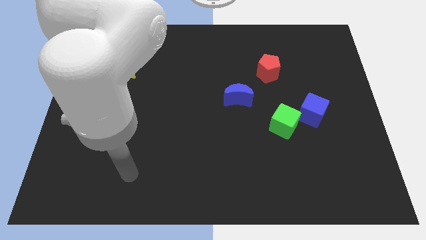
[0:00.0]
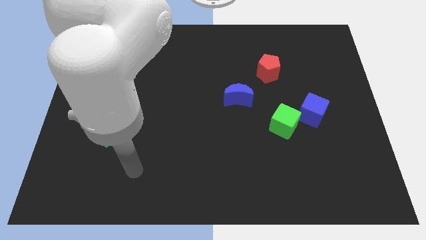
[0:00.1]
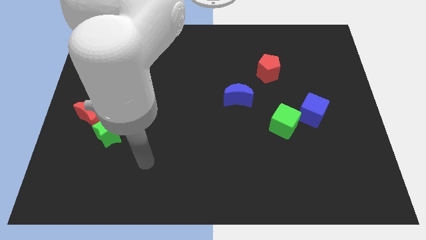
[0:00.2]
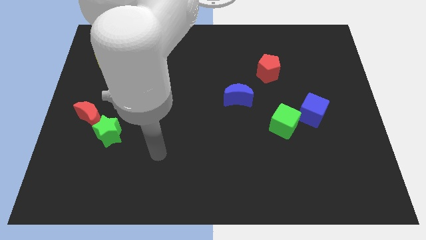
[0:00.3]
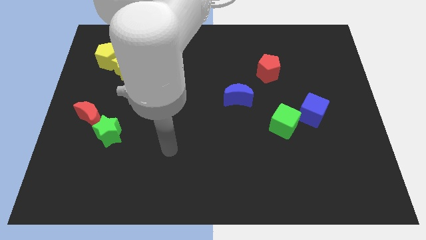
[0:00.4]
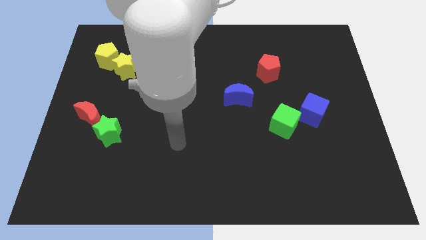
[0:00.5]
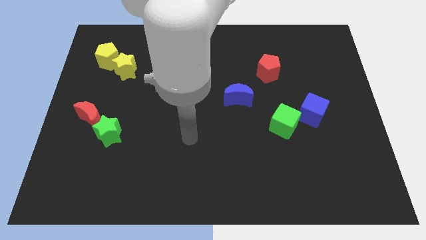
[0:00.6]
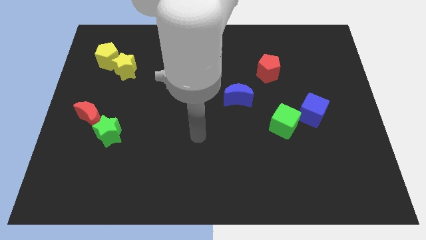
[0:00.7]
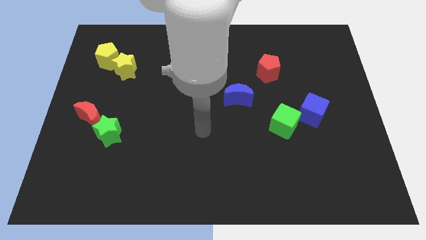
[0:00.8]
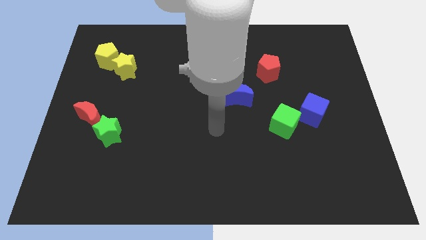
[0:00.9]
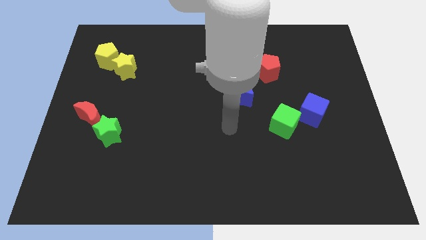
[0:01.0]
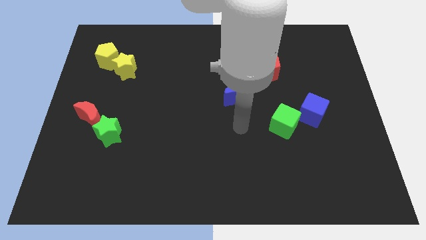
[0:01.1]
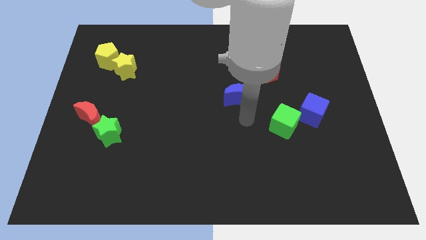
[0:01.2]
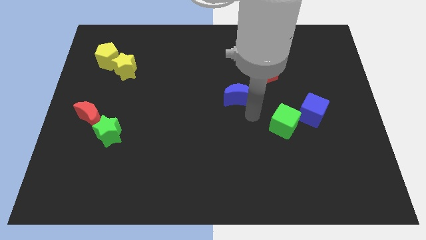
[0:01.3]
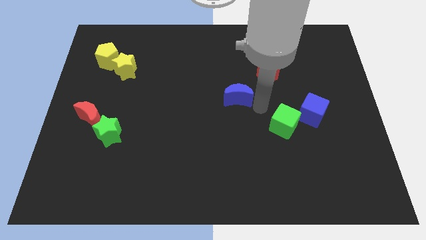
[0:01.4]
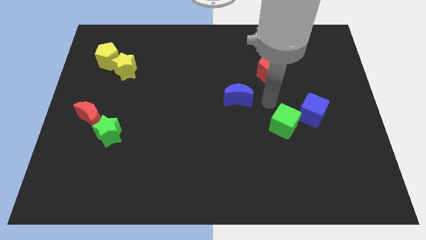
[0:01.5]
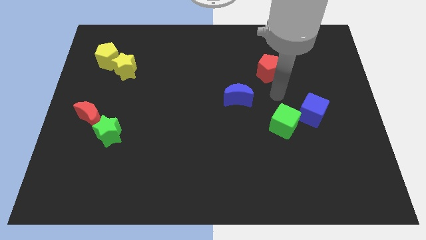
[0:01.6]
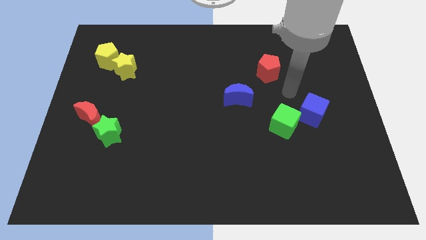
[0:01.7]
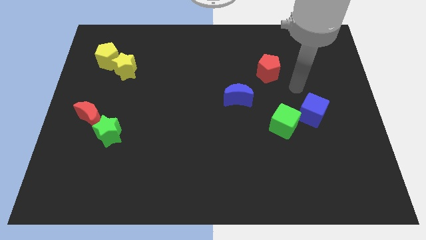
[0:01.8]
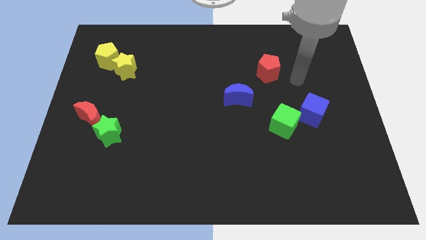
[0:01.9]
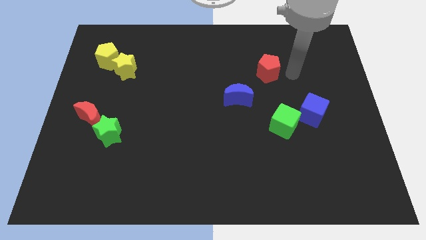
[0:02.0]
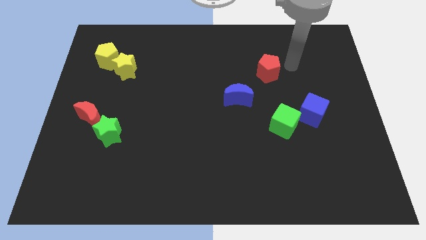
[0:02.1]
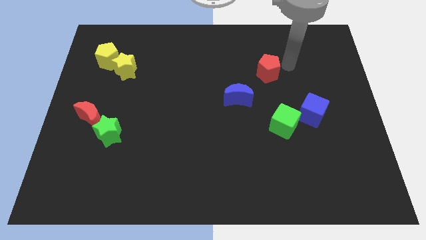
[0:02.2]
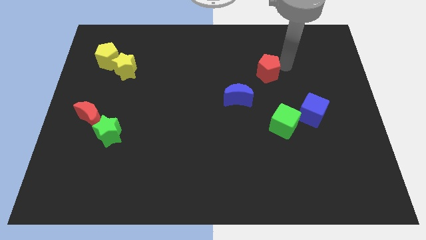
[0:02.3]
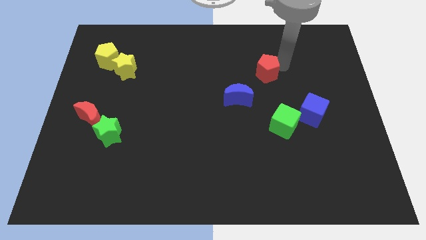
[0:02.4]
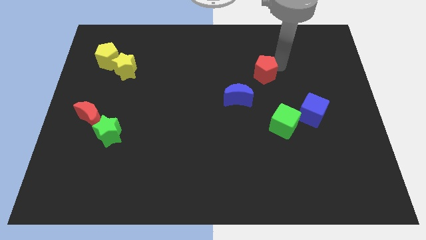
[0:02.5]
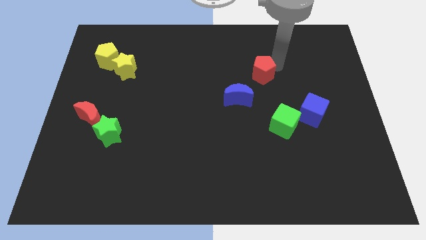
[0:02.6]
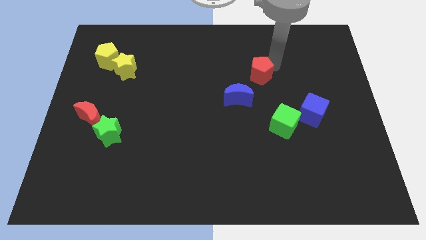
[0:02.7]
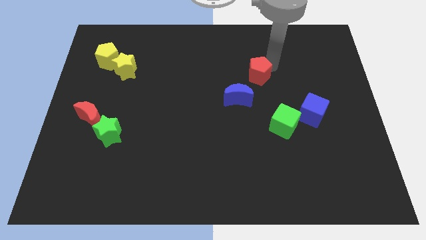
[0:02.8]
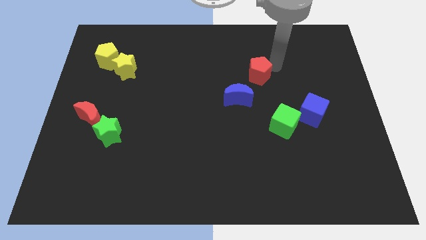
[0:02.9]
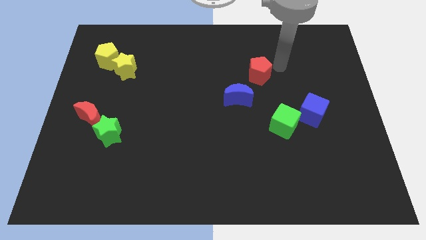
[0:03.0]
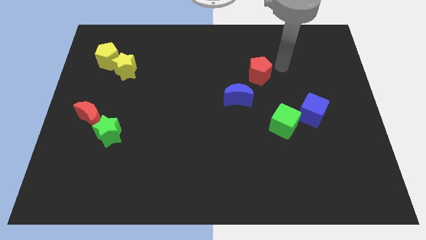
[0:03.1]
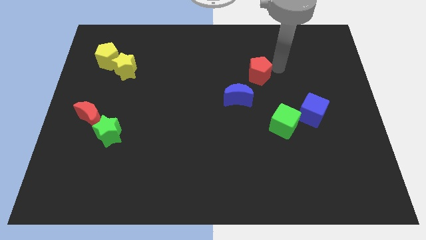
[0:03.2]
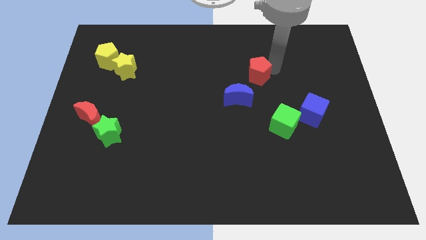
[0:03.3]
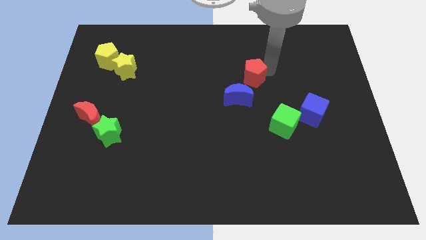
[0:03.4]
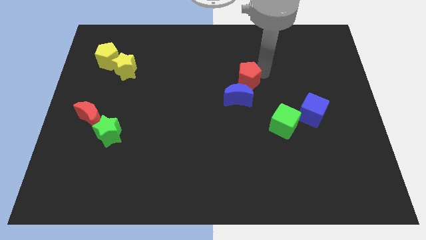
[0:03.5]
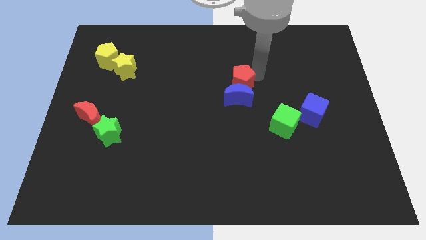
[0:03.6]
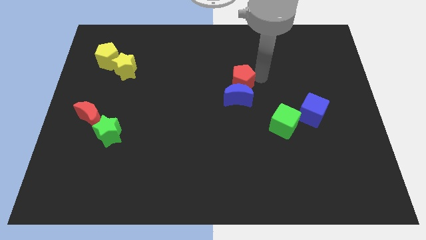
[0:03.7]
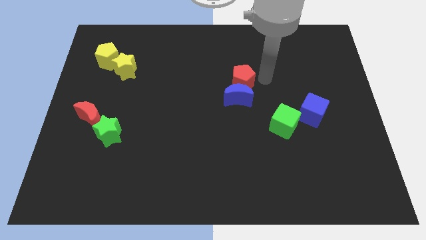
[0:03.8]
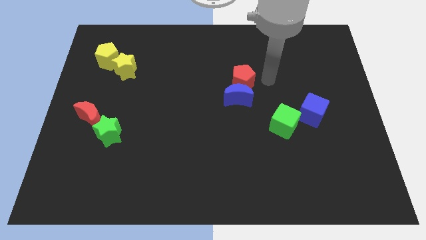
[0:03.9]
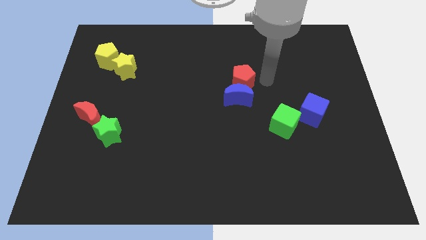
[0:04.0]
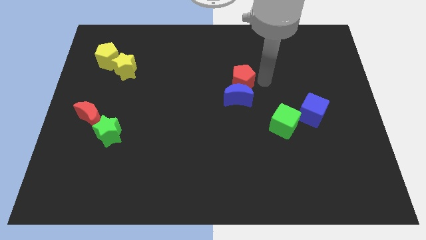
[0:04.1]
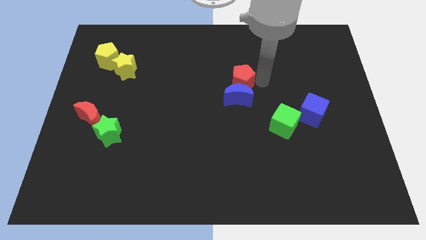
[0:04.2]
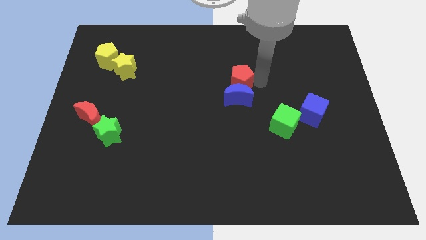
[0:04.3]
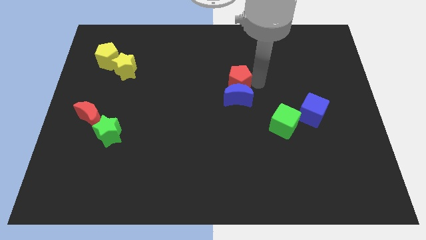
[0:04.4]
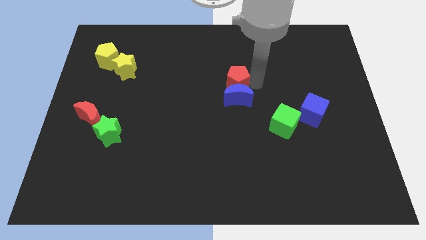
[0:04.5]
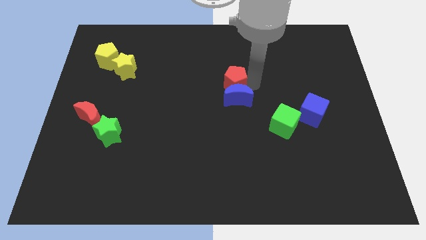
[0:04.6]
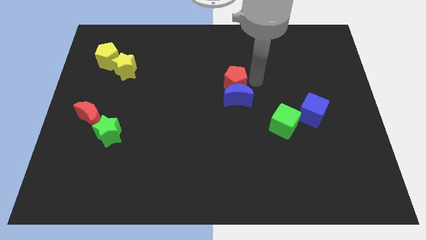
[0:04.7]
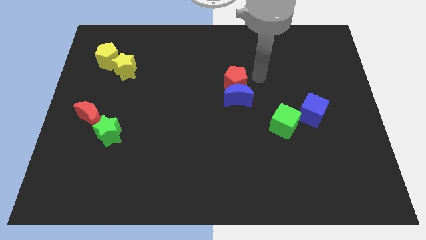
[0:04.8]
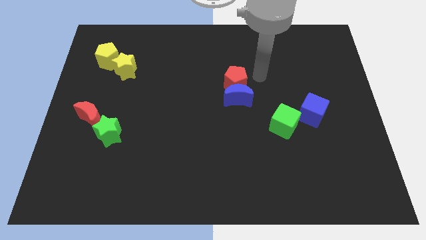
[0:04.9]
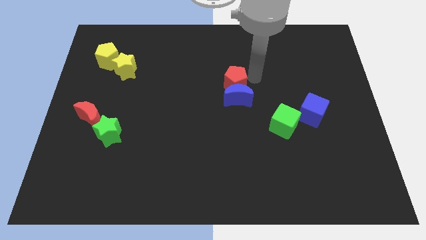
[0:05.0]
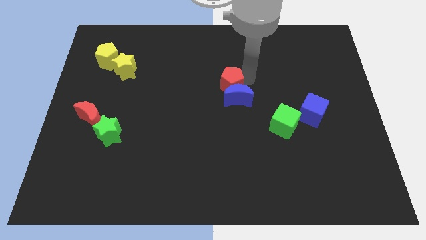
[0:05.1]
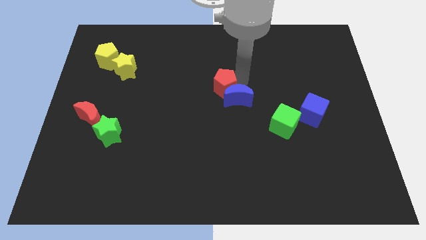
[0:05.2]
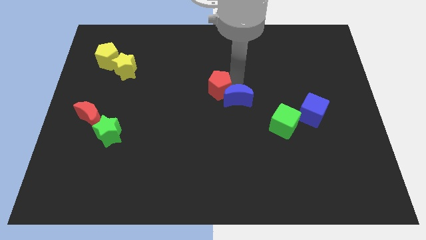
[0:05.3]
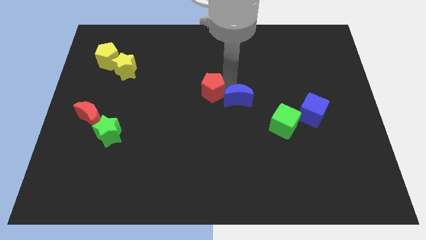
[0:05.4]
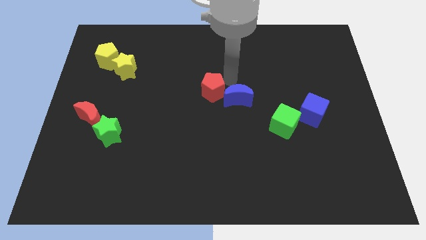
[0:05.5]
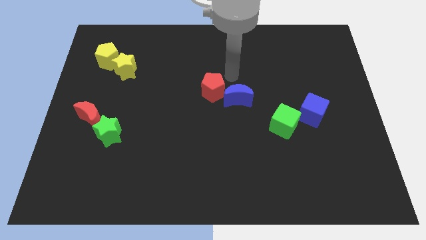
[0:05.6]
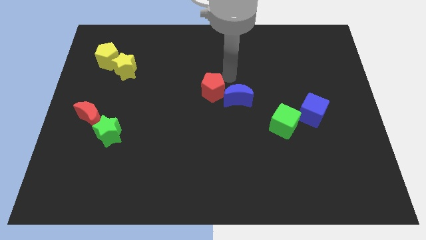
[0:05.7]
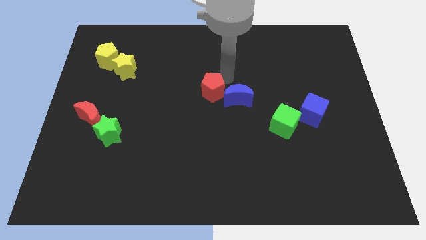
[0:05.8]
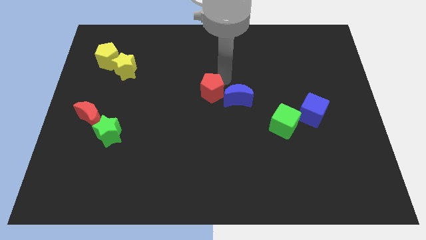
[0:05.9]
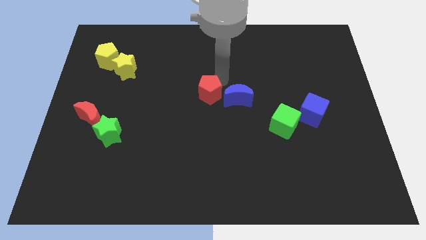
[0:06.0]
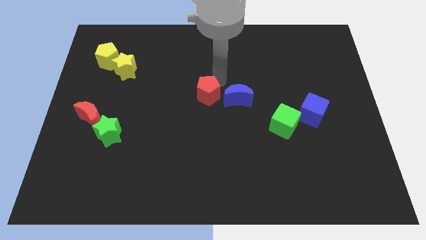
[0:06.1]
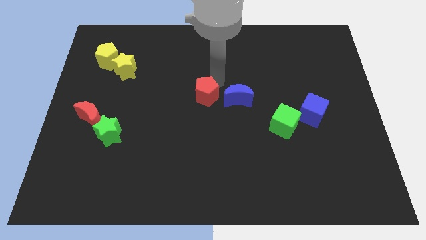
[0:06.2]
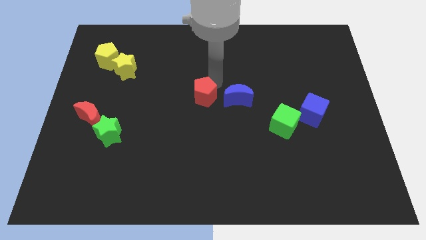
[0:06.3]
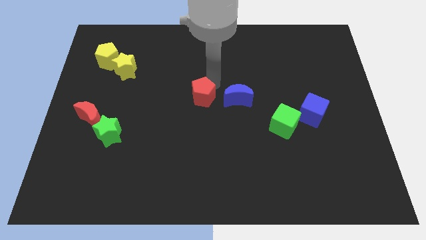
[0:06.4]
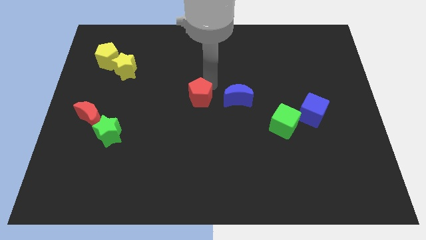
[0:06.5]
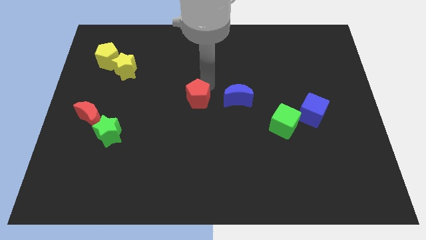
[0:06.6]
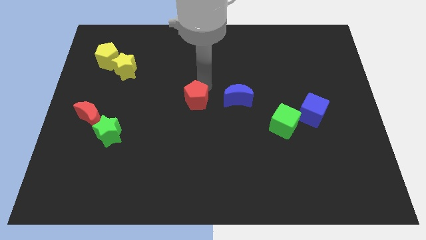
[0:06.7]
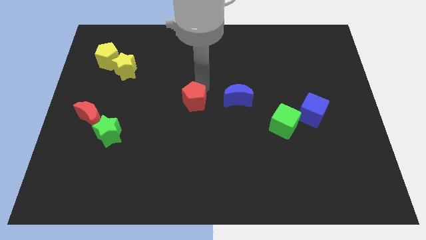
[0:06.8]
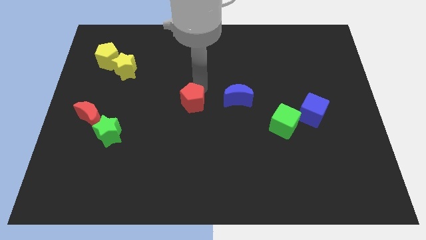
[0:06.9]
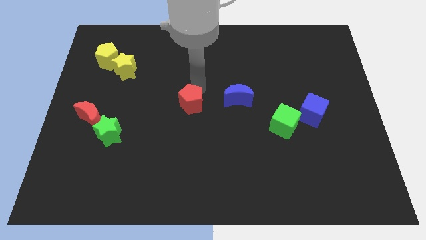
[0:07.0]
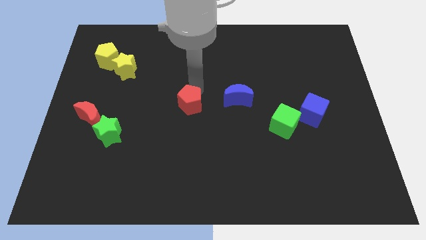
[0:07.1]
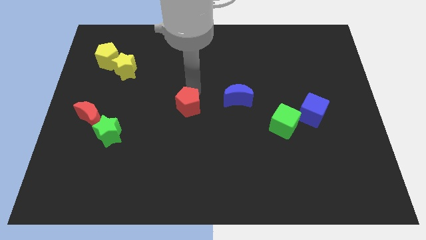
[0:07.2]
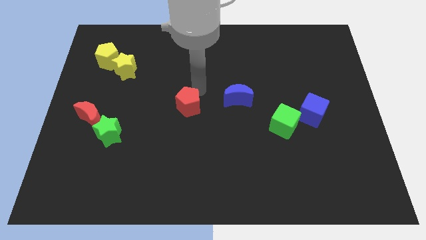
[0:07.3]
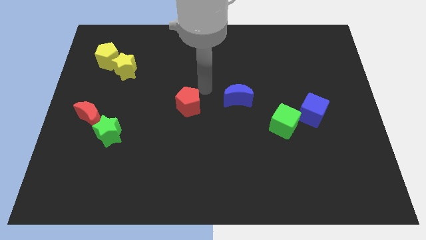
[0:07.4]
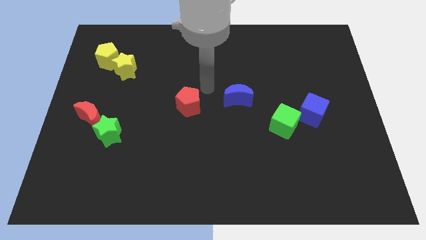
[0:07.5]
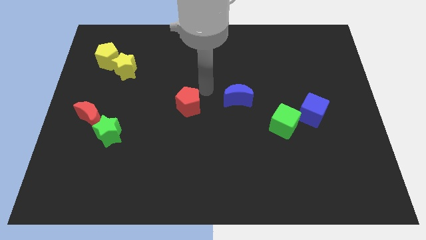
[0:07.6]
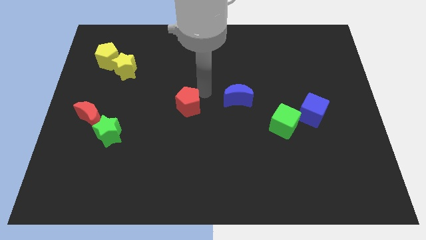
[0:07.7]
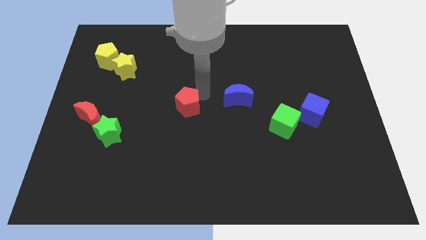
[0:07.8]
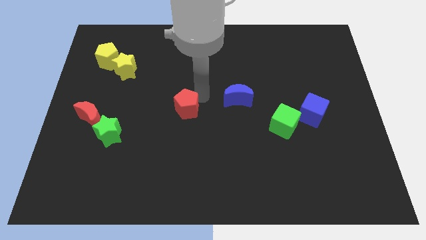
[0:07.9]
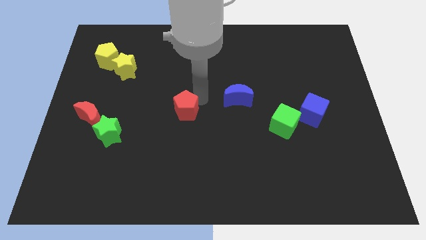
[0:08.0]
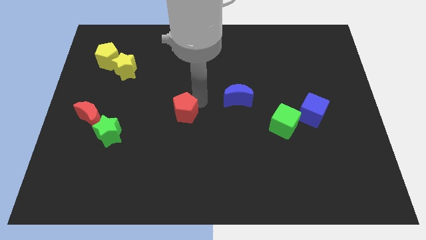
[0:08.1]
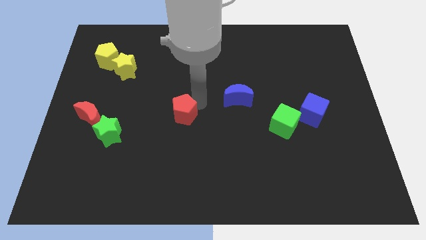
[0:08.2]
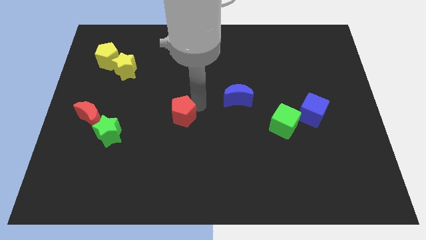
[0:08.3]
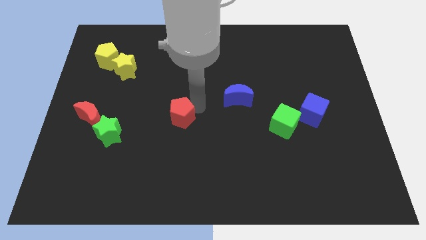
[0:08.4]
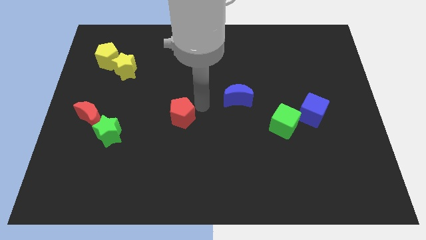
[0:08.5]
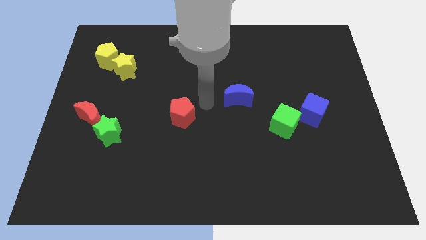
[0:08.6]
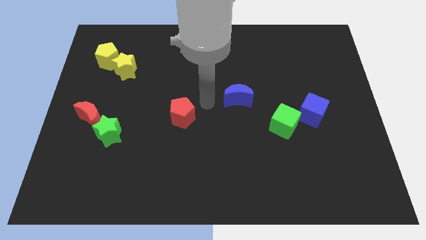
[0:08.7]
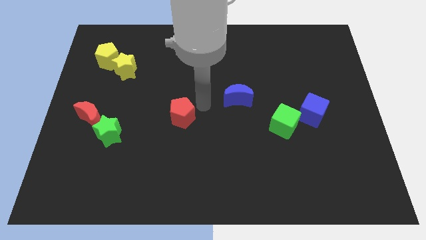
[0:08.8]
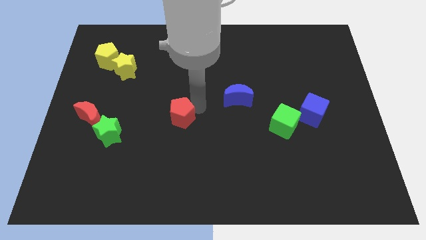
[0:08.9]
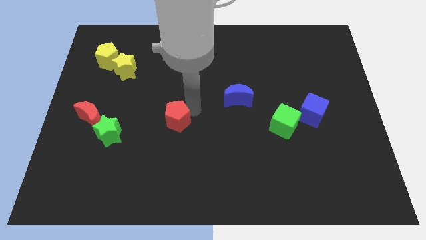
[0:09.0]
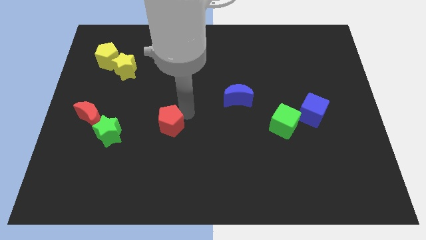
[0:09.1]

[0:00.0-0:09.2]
slide the red pentagon right of the green star
